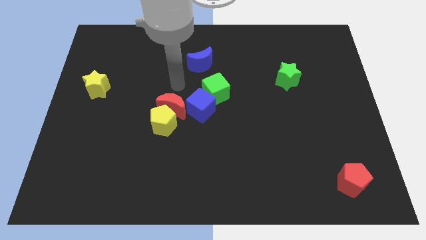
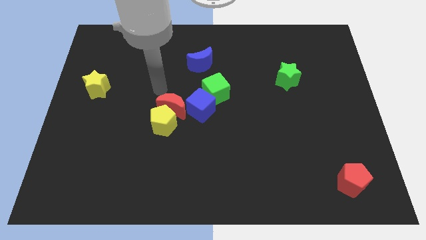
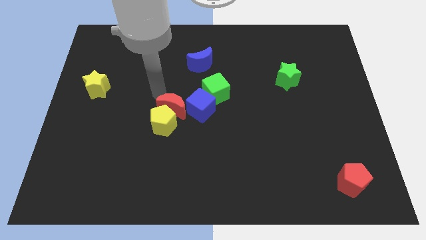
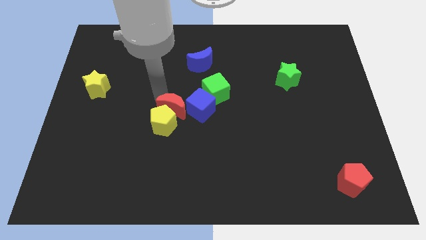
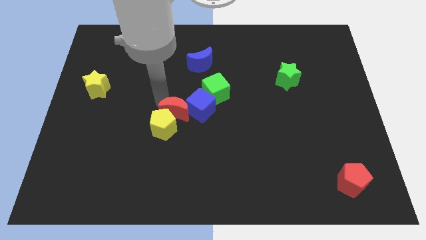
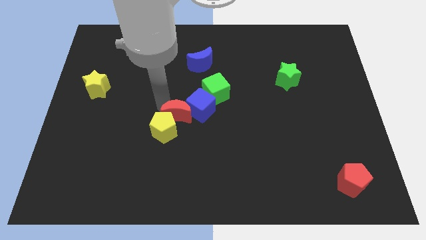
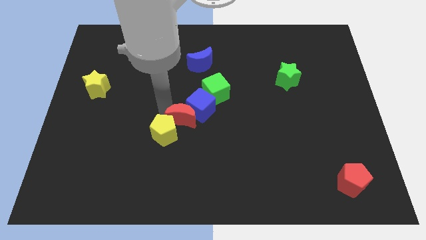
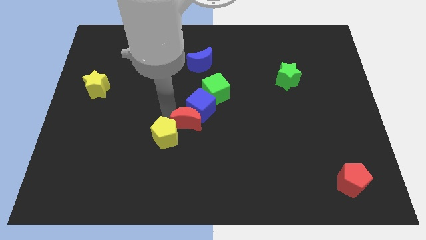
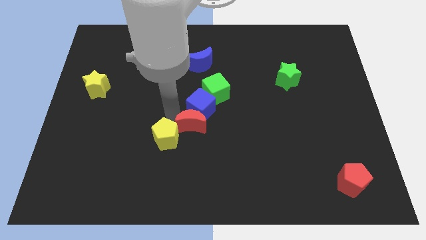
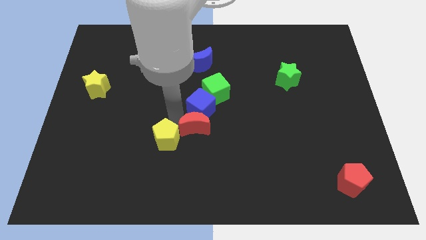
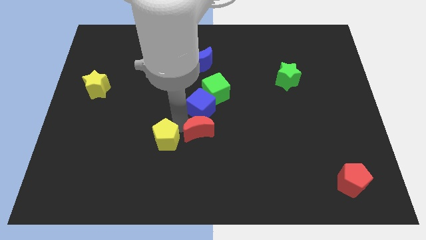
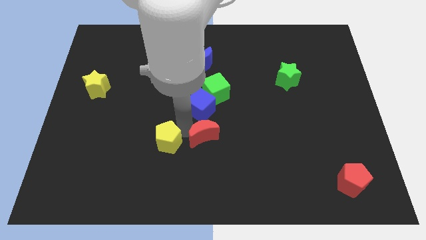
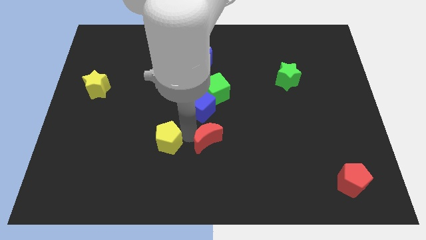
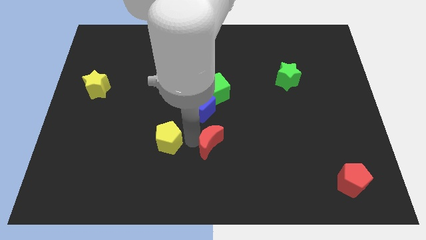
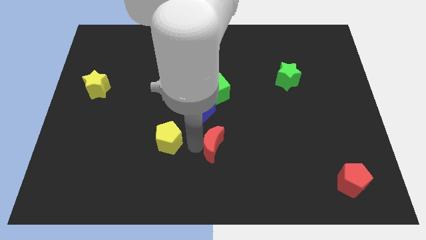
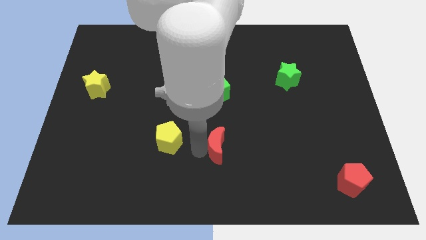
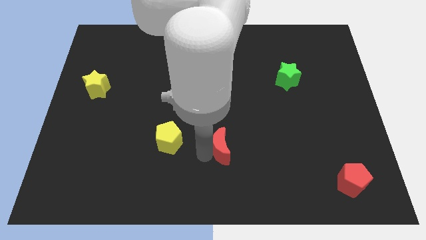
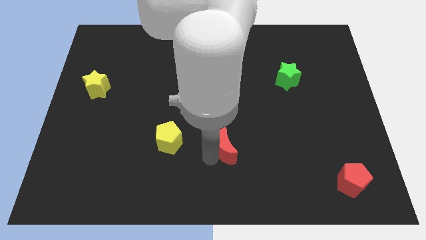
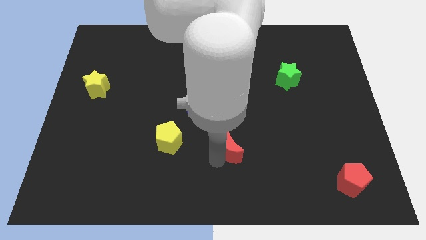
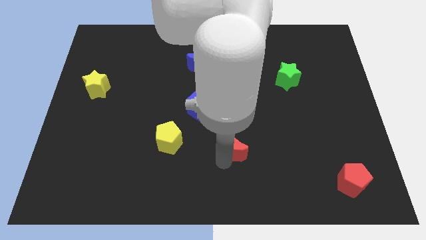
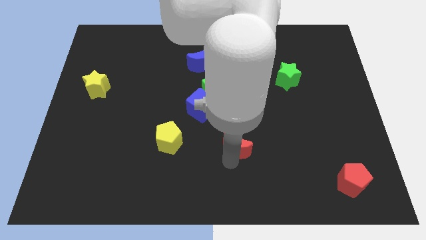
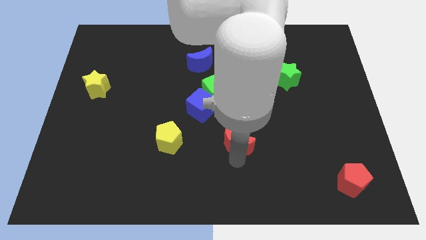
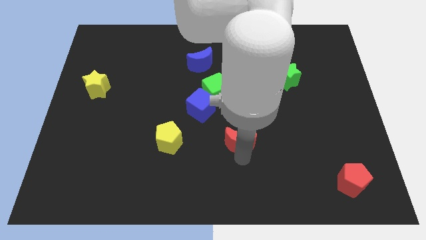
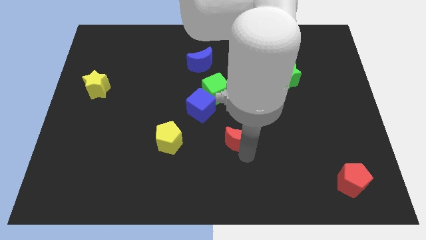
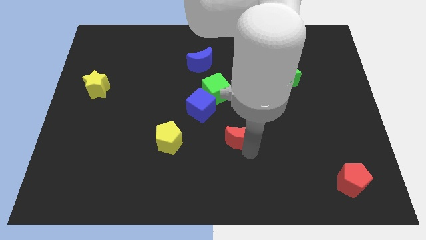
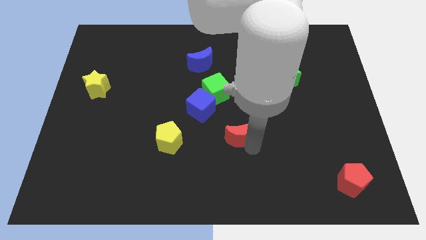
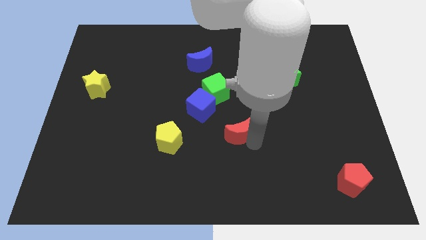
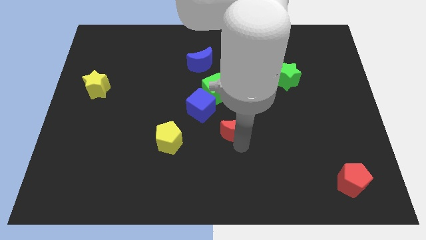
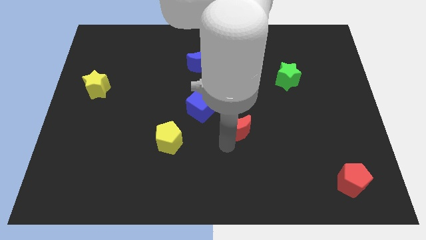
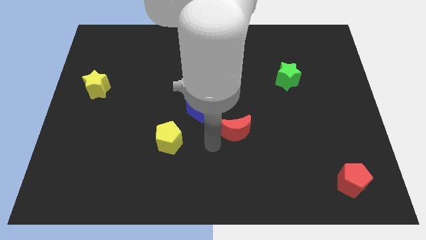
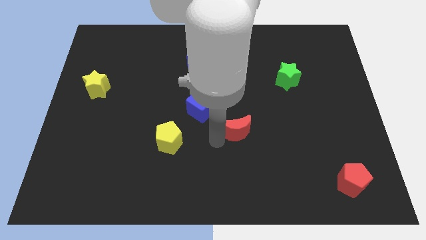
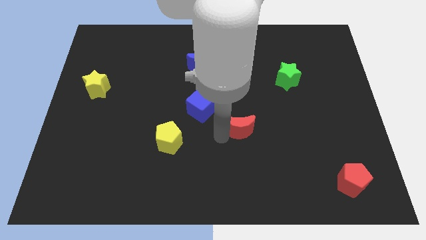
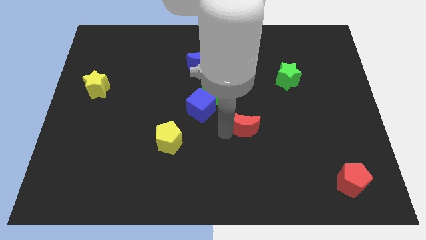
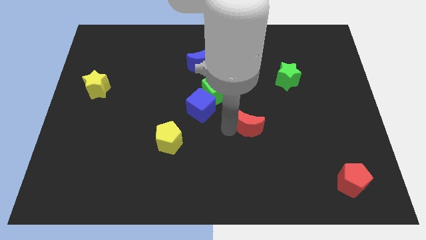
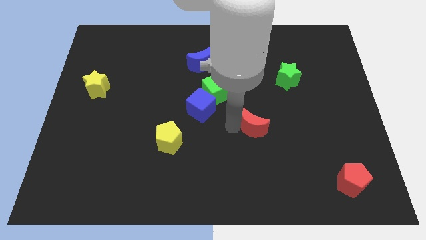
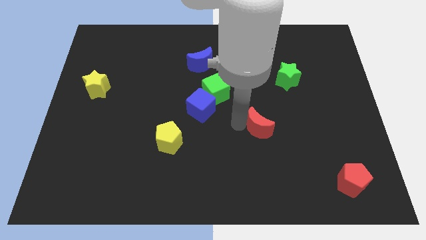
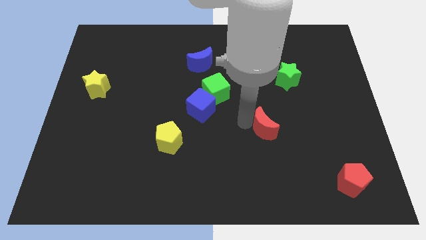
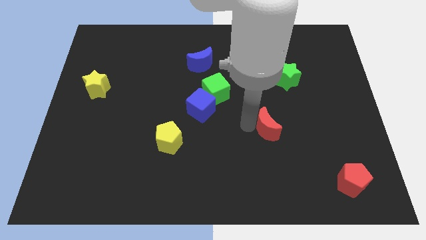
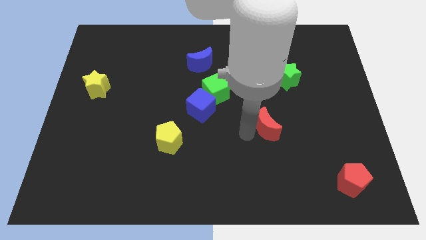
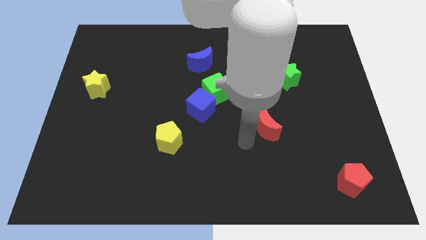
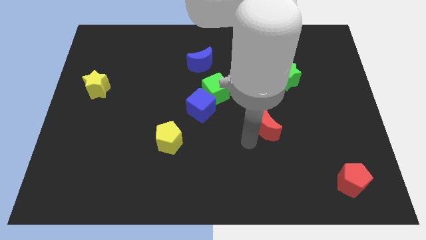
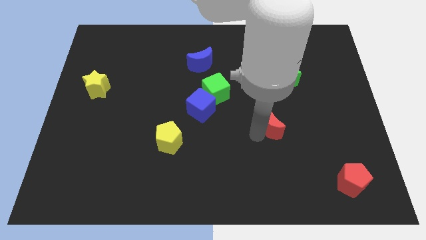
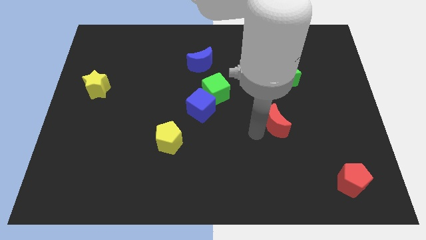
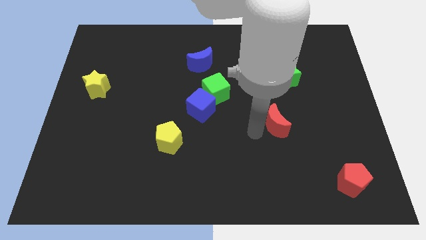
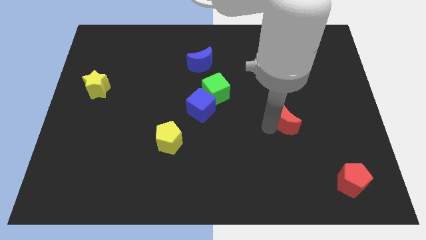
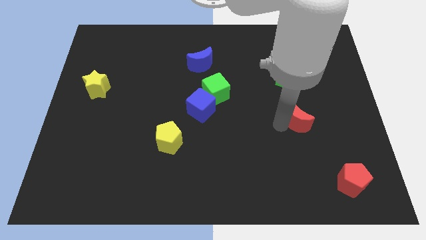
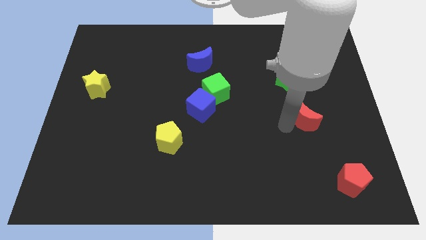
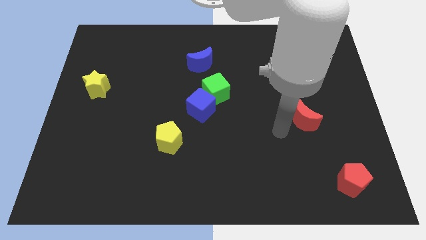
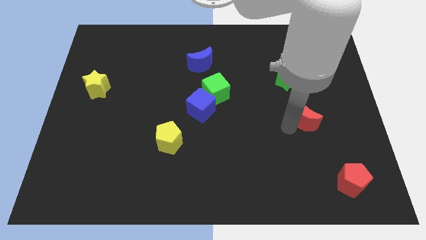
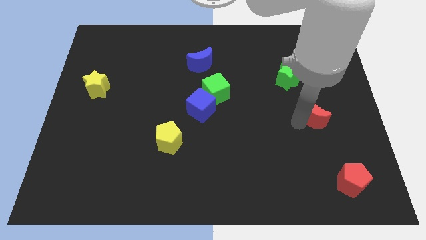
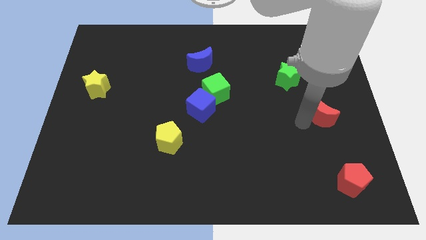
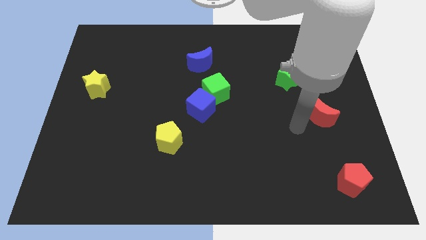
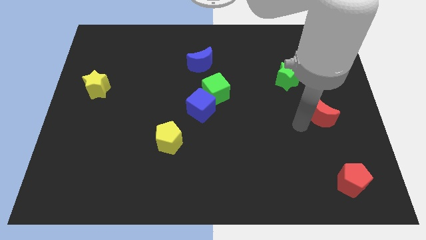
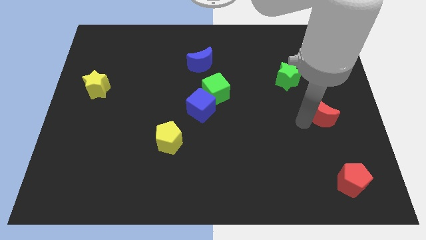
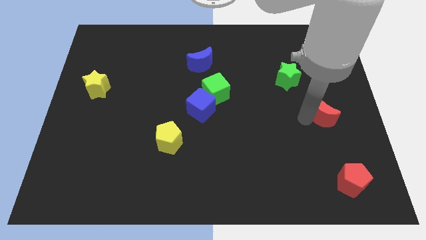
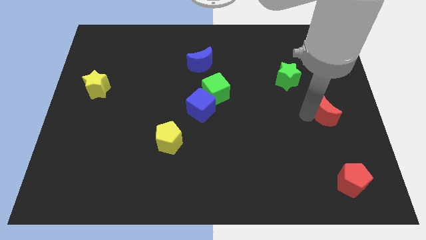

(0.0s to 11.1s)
push the red moon to the right side of the board
